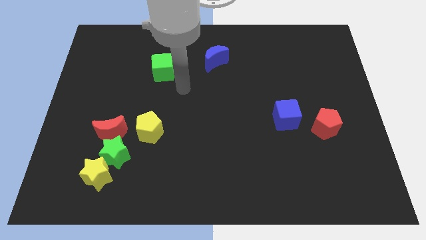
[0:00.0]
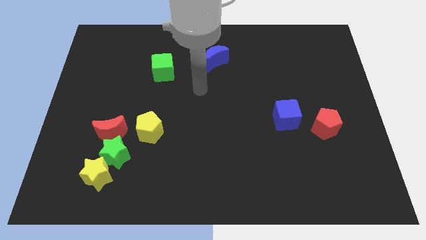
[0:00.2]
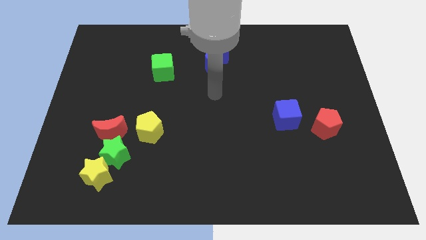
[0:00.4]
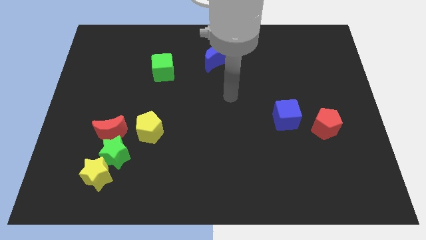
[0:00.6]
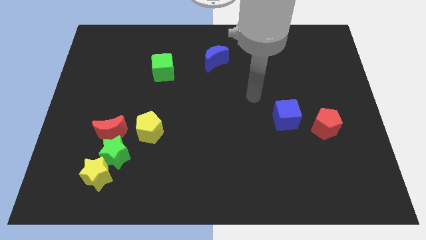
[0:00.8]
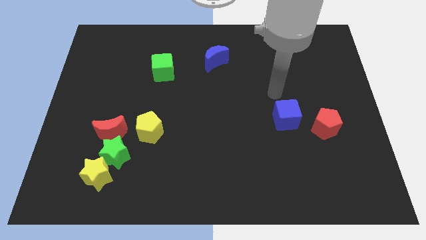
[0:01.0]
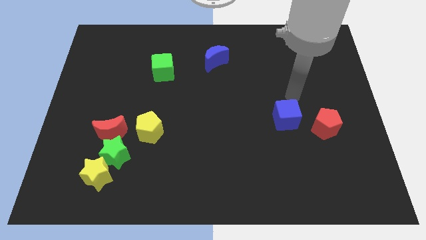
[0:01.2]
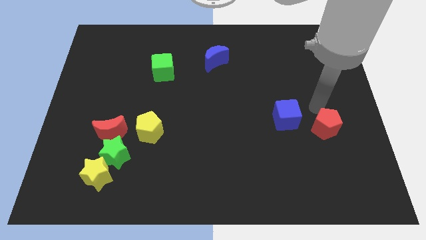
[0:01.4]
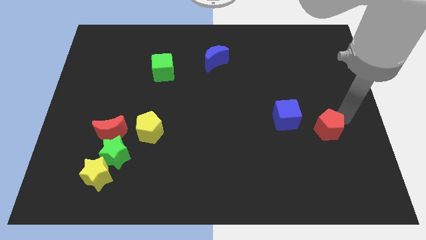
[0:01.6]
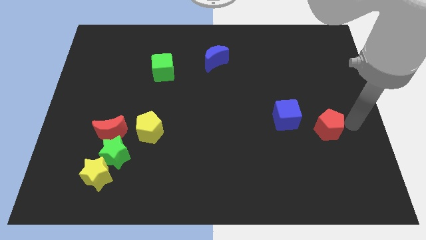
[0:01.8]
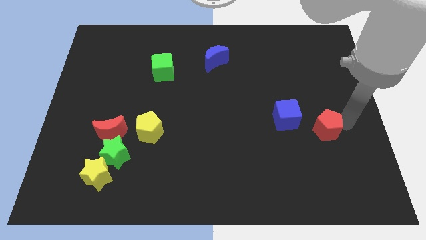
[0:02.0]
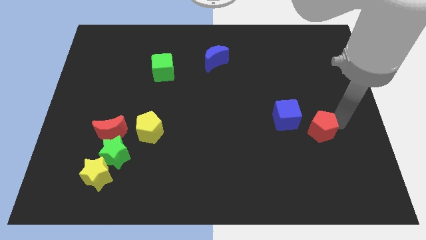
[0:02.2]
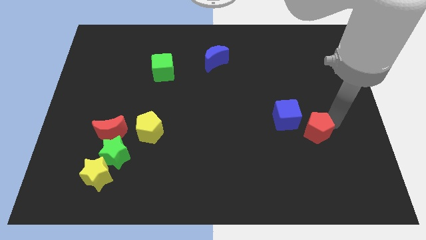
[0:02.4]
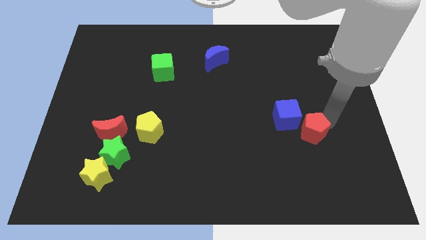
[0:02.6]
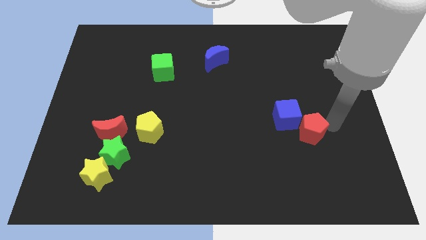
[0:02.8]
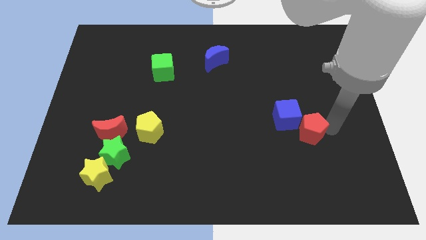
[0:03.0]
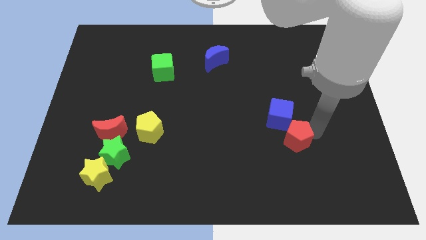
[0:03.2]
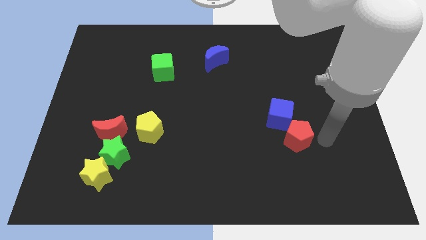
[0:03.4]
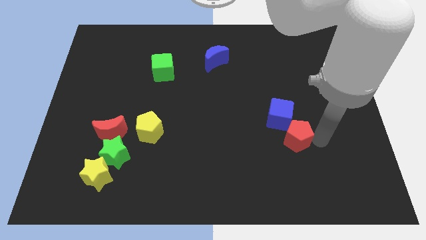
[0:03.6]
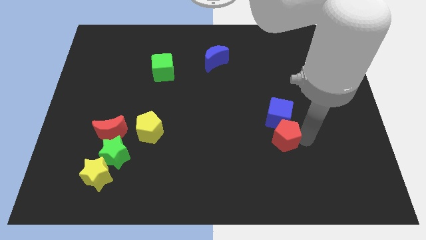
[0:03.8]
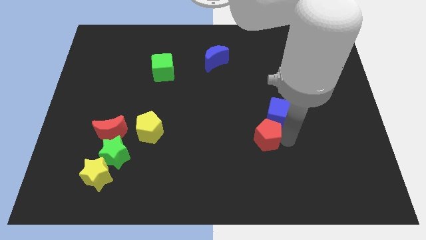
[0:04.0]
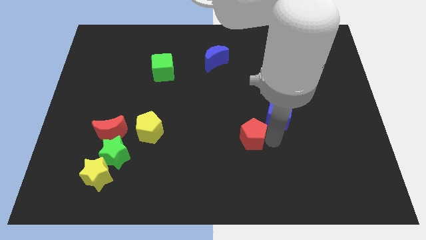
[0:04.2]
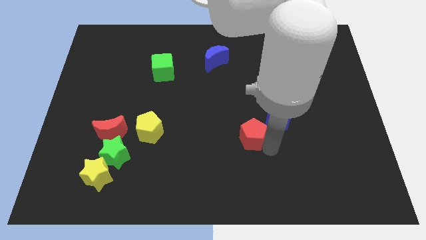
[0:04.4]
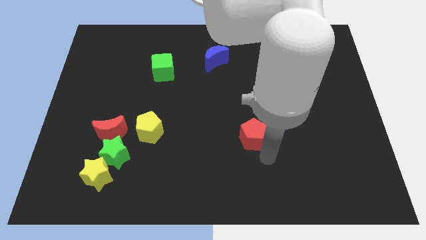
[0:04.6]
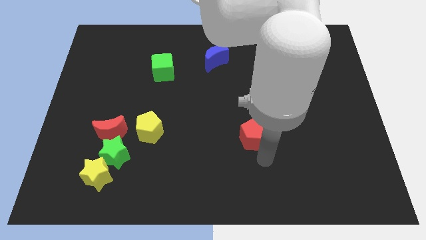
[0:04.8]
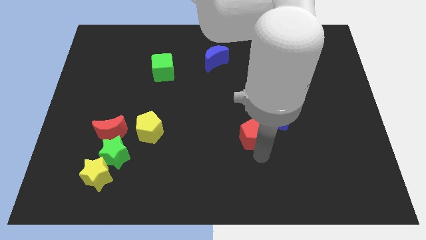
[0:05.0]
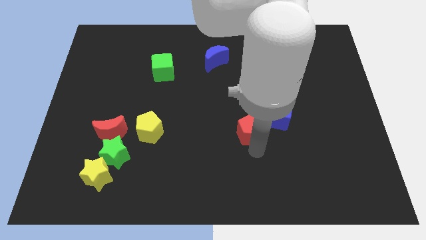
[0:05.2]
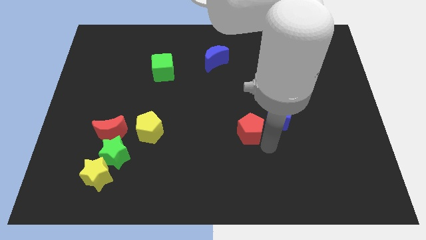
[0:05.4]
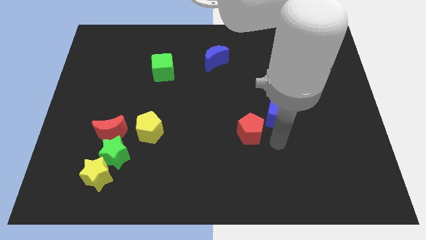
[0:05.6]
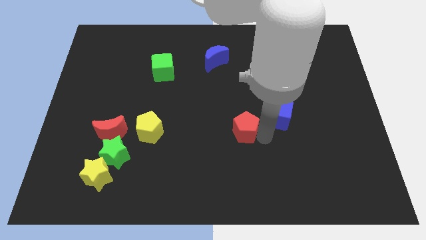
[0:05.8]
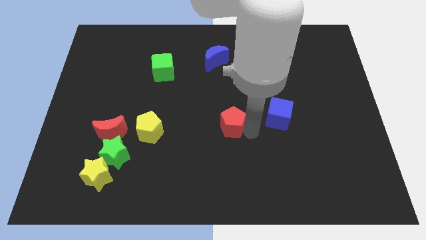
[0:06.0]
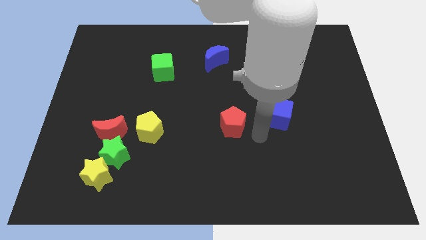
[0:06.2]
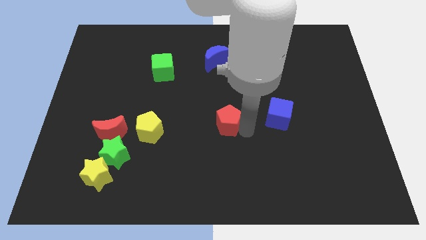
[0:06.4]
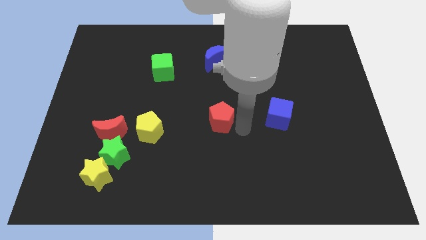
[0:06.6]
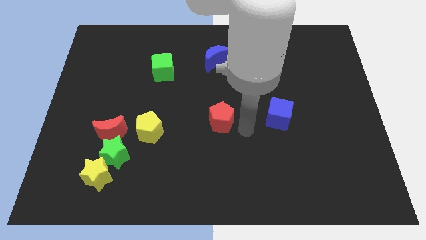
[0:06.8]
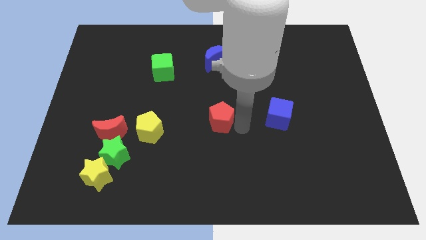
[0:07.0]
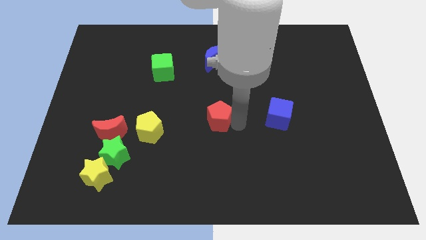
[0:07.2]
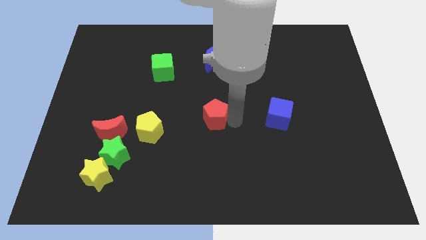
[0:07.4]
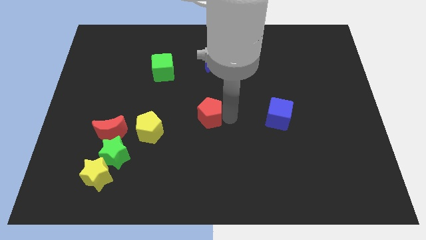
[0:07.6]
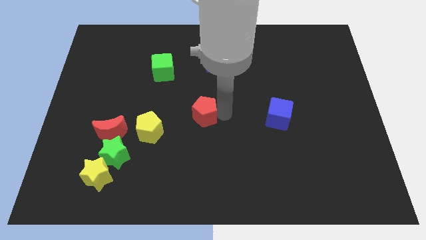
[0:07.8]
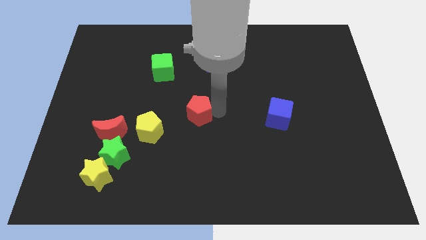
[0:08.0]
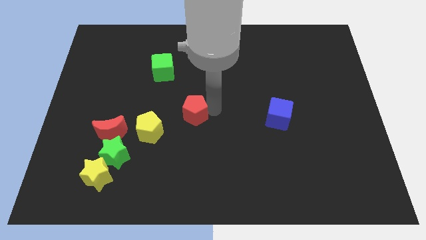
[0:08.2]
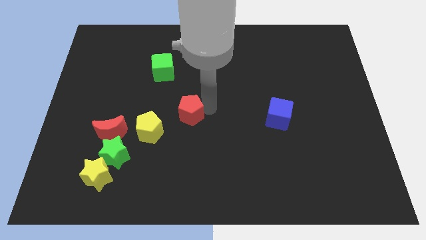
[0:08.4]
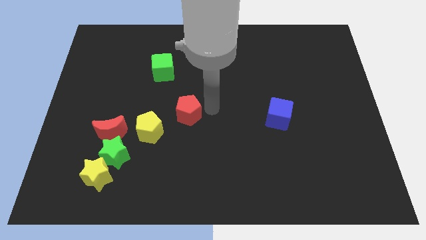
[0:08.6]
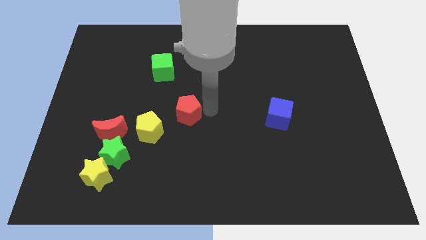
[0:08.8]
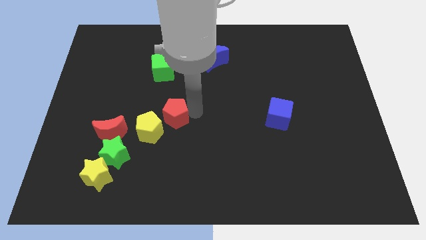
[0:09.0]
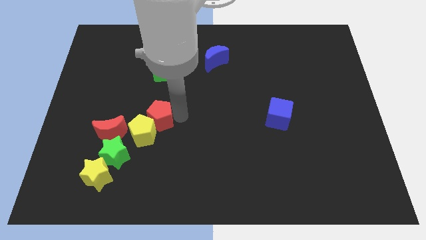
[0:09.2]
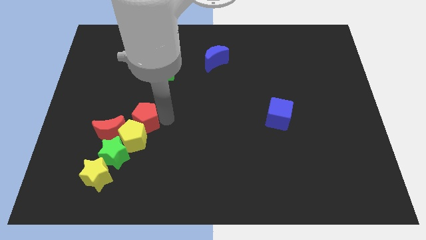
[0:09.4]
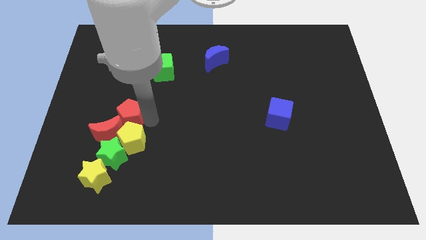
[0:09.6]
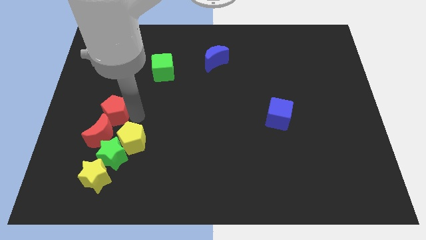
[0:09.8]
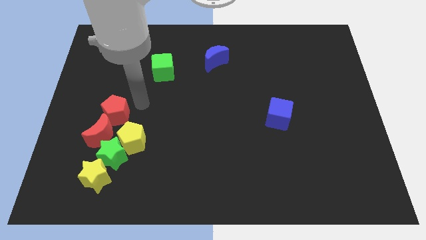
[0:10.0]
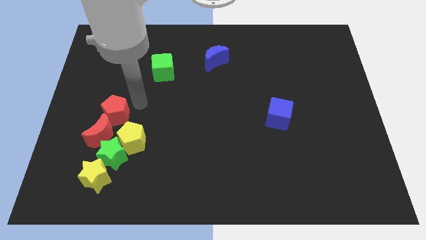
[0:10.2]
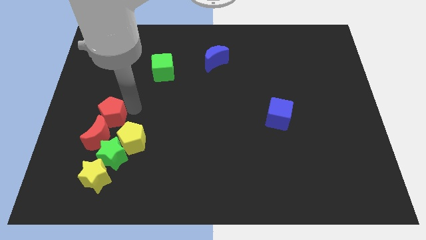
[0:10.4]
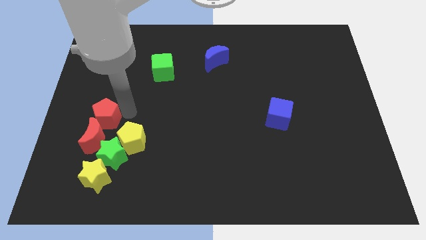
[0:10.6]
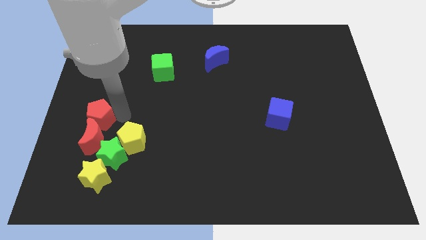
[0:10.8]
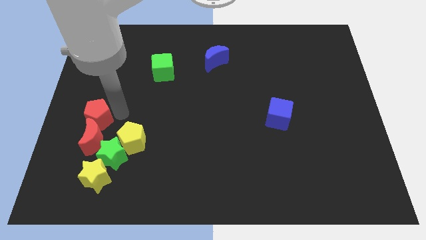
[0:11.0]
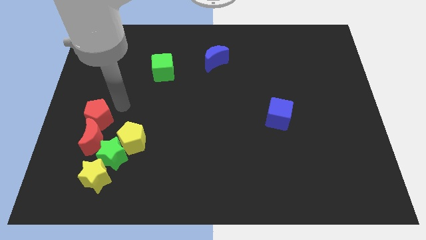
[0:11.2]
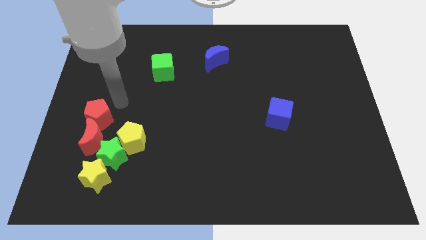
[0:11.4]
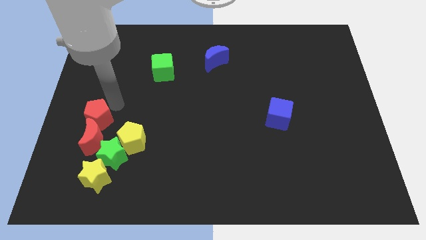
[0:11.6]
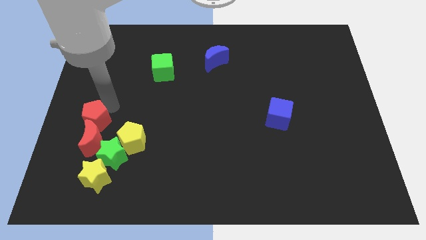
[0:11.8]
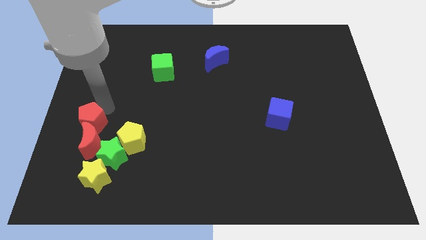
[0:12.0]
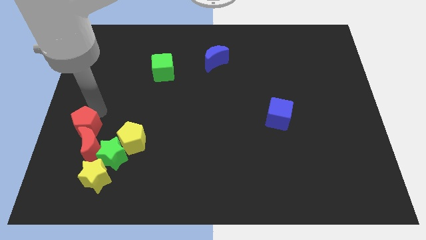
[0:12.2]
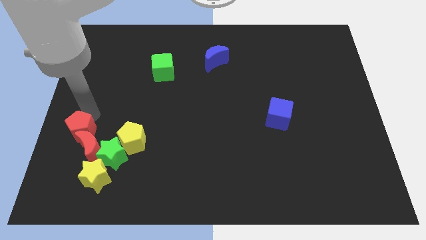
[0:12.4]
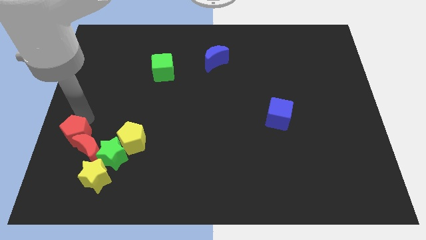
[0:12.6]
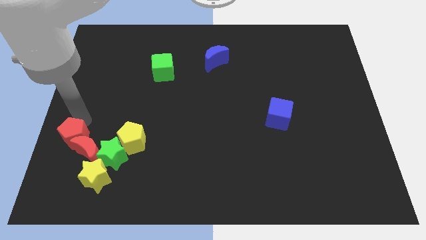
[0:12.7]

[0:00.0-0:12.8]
push the red pentagon diagonally up and to the left of the yellow star

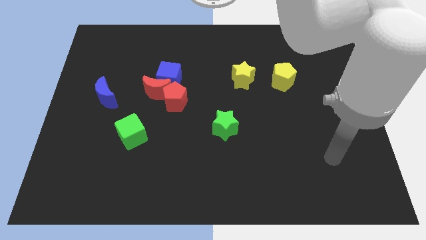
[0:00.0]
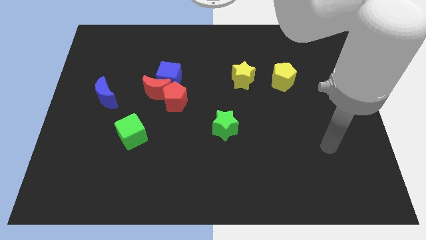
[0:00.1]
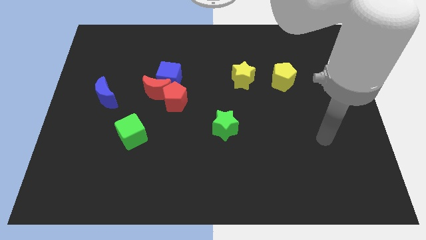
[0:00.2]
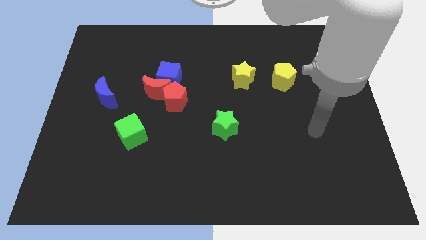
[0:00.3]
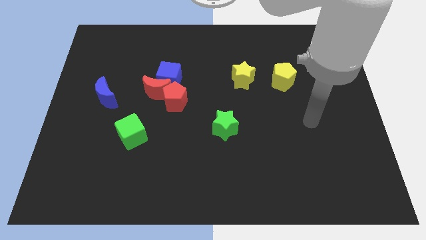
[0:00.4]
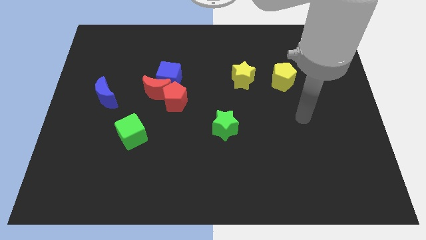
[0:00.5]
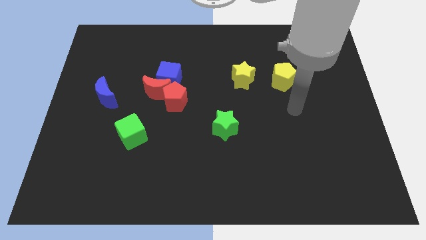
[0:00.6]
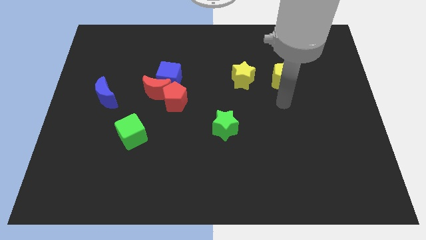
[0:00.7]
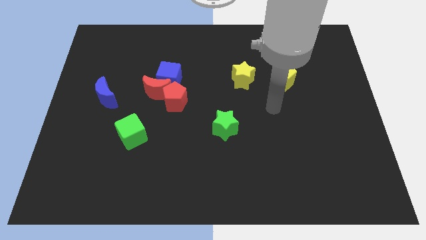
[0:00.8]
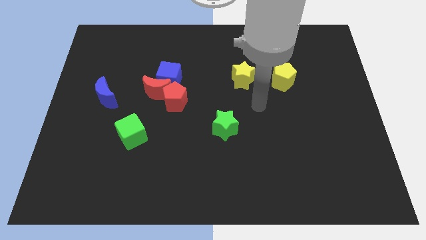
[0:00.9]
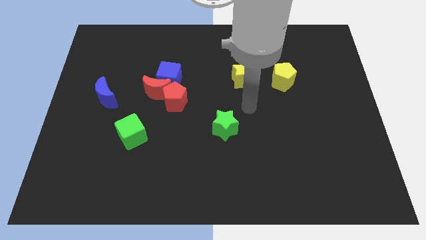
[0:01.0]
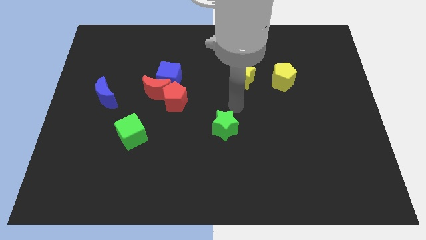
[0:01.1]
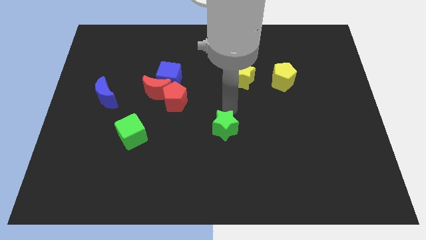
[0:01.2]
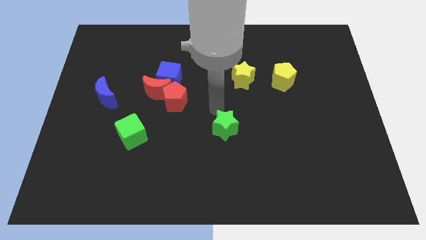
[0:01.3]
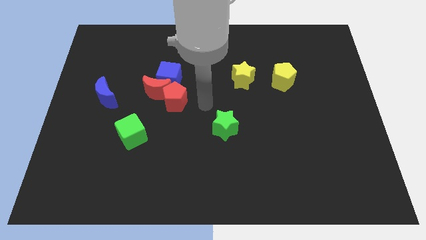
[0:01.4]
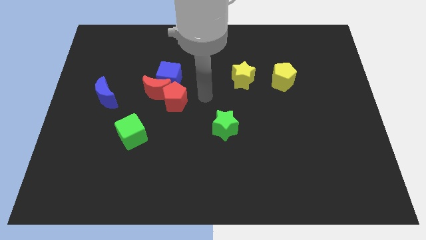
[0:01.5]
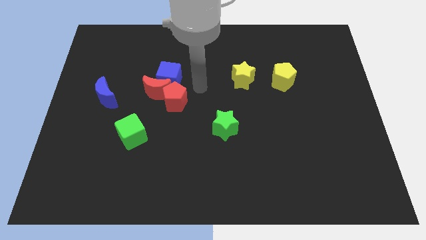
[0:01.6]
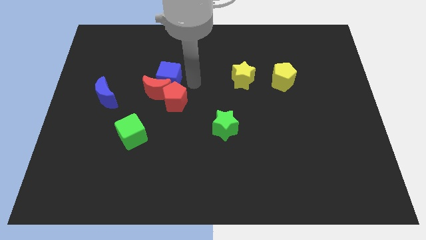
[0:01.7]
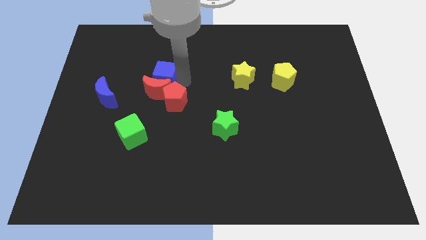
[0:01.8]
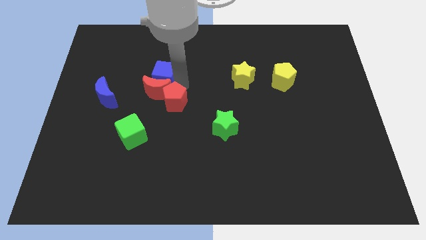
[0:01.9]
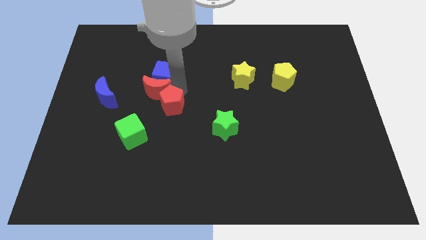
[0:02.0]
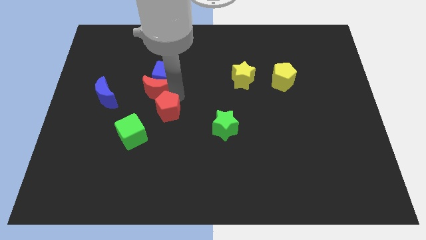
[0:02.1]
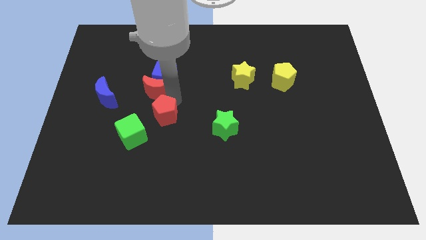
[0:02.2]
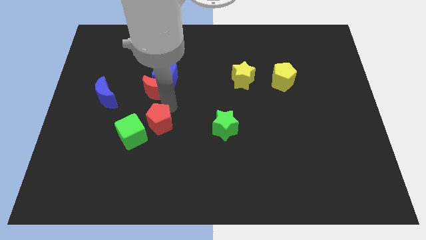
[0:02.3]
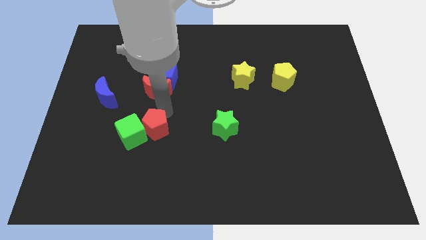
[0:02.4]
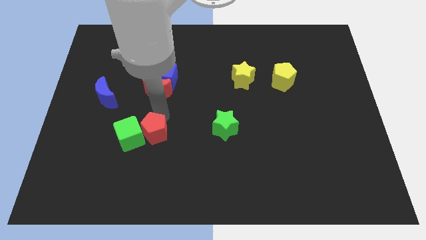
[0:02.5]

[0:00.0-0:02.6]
move the red pentagon to the bottom right of the green cube
